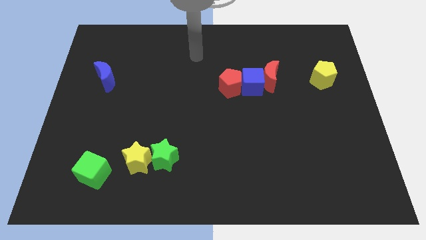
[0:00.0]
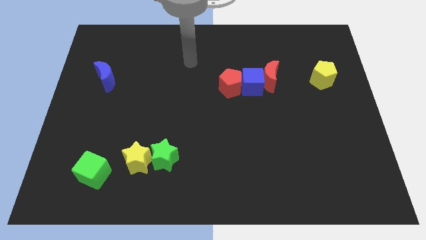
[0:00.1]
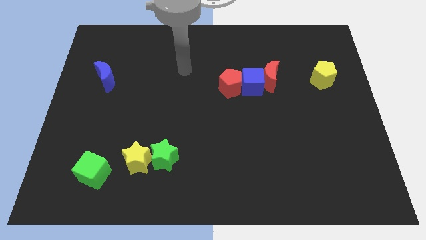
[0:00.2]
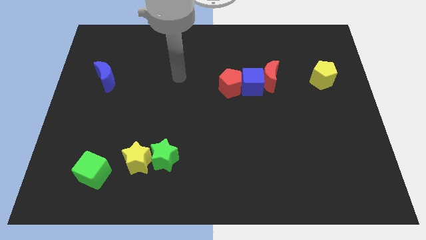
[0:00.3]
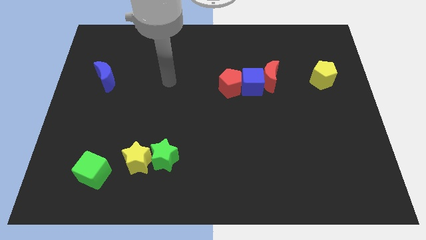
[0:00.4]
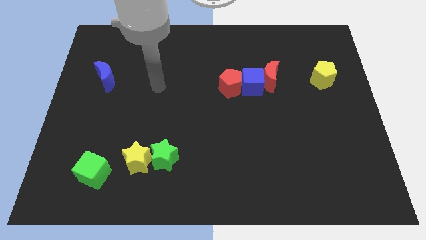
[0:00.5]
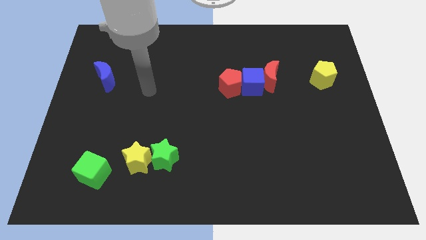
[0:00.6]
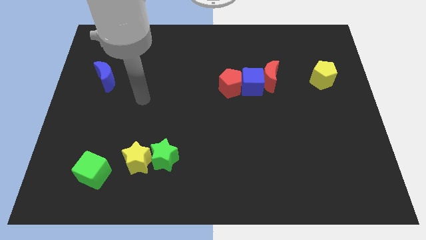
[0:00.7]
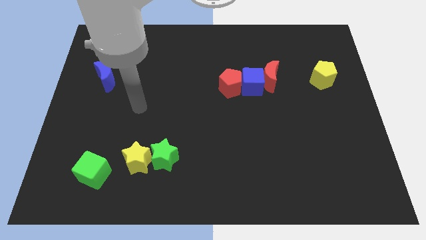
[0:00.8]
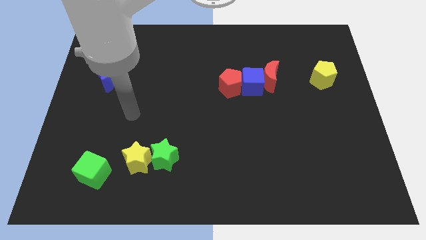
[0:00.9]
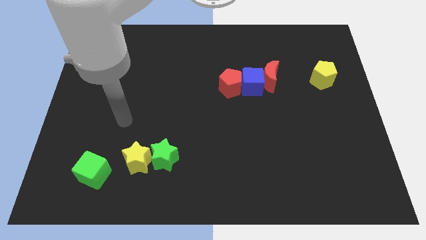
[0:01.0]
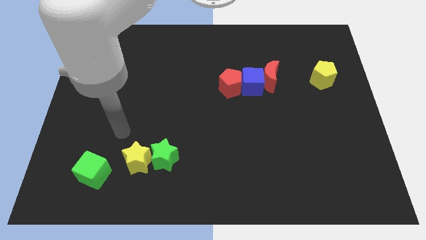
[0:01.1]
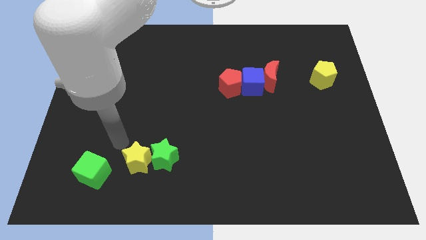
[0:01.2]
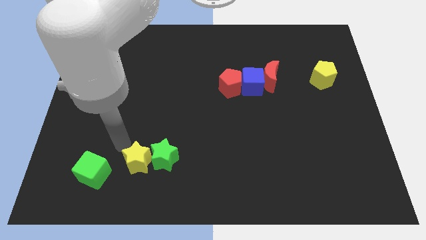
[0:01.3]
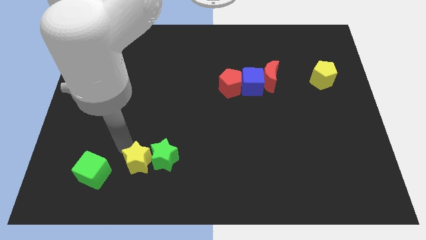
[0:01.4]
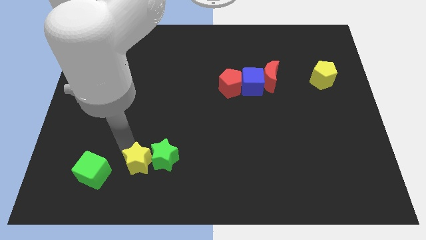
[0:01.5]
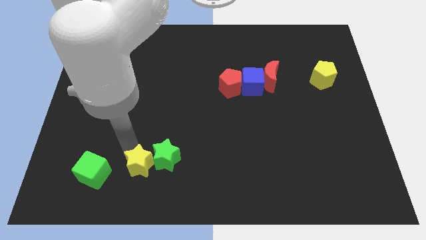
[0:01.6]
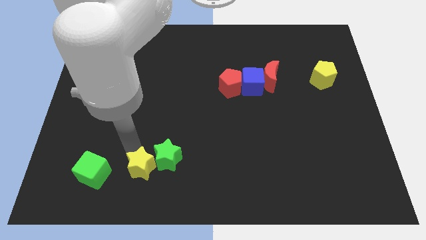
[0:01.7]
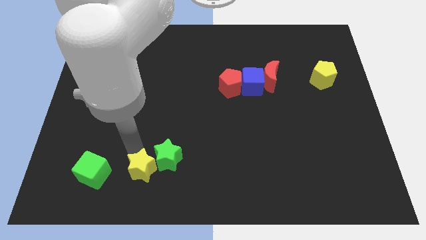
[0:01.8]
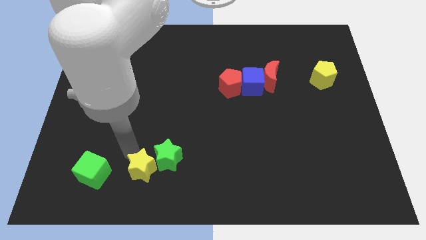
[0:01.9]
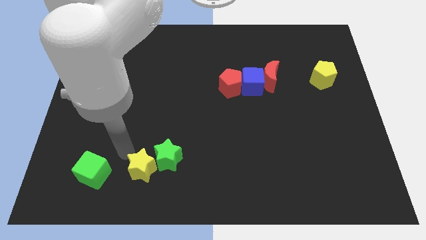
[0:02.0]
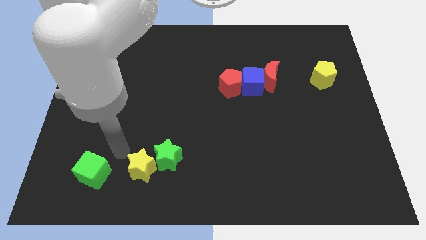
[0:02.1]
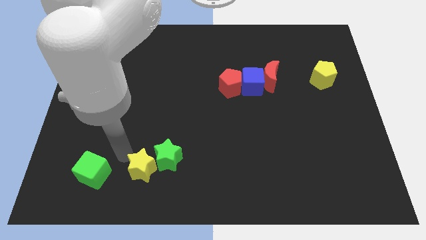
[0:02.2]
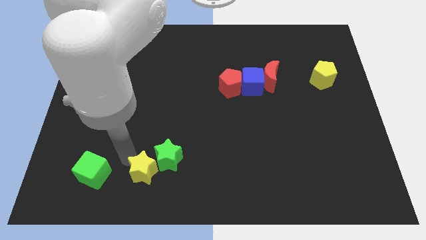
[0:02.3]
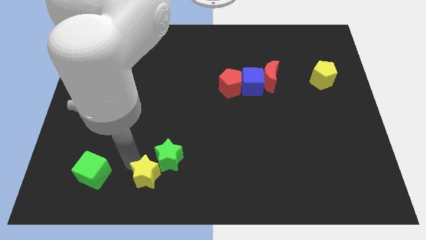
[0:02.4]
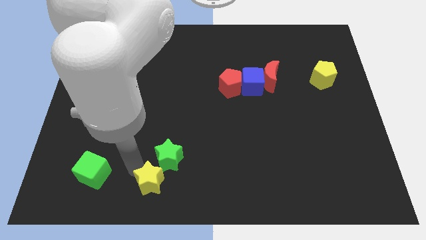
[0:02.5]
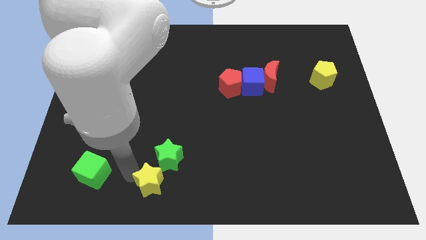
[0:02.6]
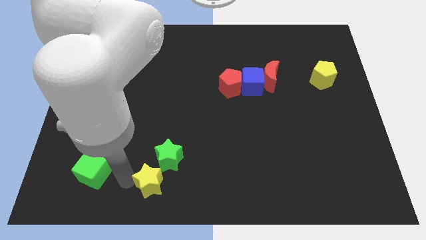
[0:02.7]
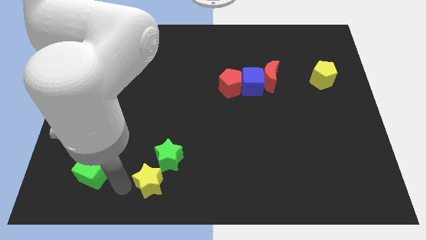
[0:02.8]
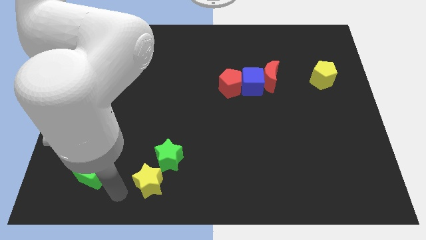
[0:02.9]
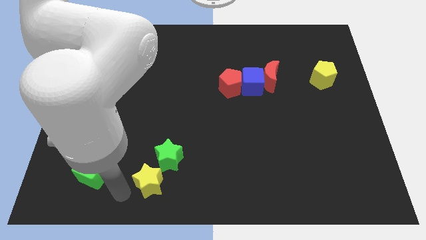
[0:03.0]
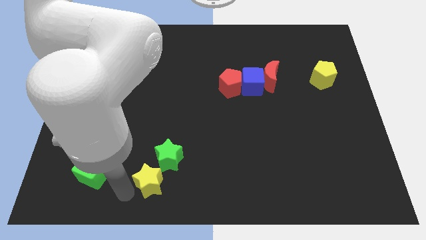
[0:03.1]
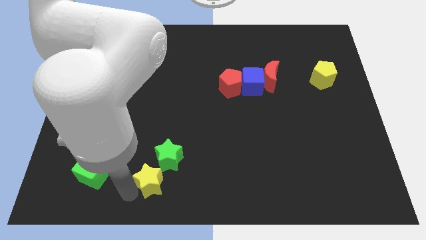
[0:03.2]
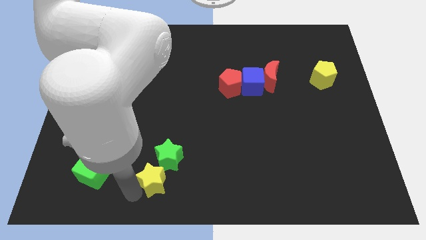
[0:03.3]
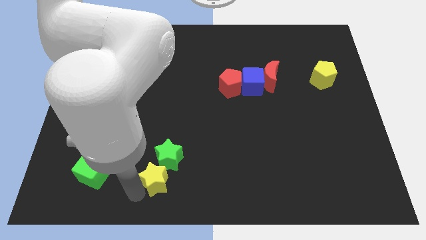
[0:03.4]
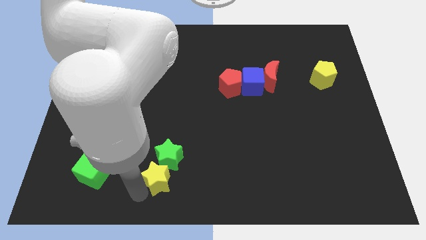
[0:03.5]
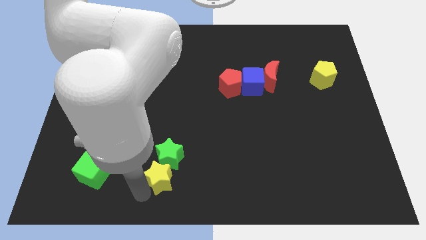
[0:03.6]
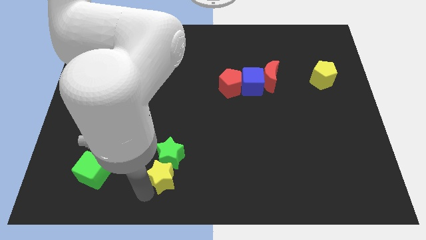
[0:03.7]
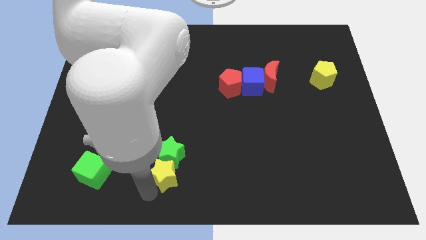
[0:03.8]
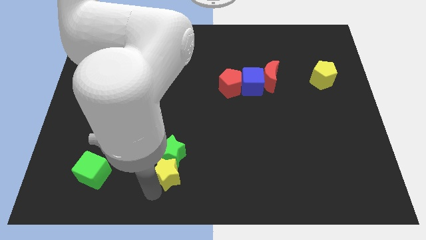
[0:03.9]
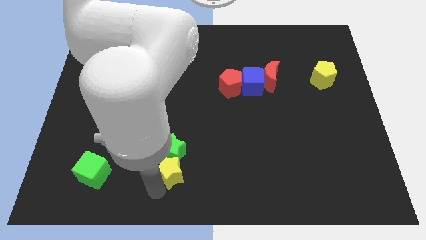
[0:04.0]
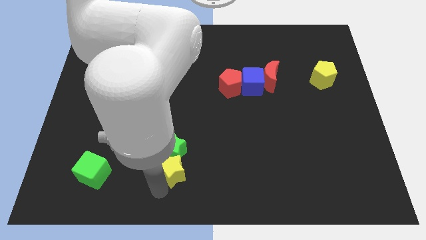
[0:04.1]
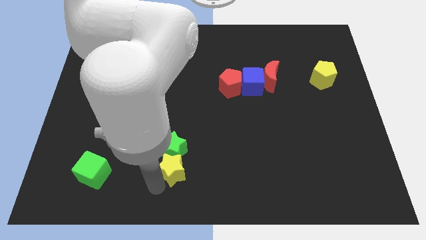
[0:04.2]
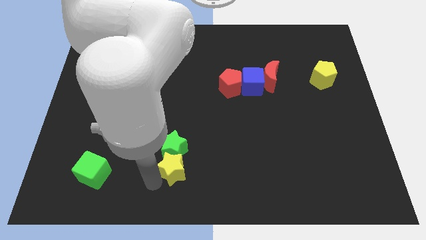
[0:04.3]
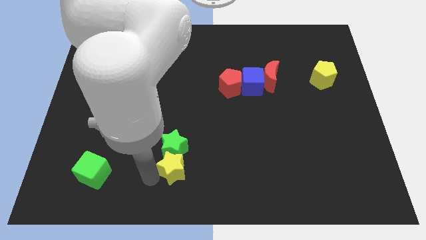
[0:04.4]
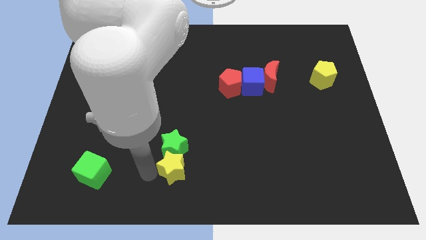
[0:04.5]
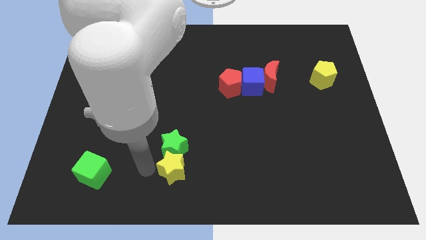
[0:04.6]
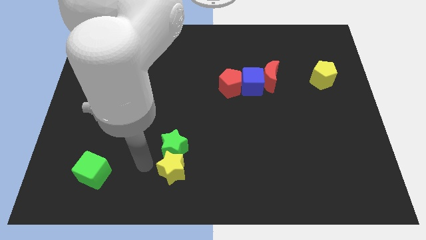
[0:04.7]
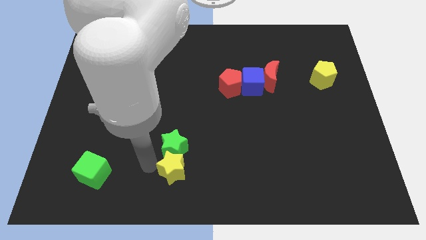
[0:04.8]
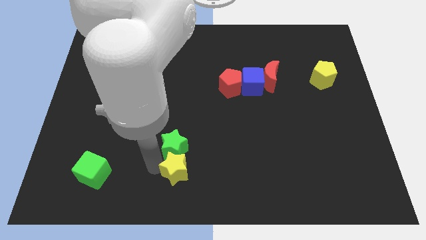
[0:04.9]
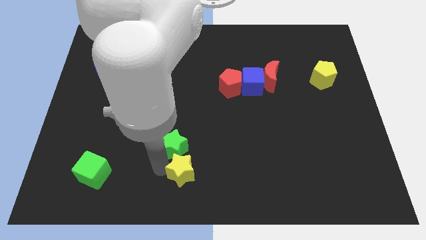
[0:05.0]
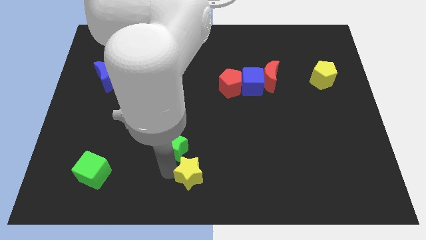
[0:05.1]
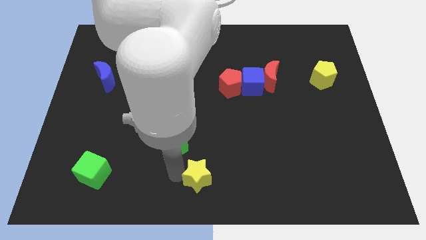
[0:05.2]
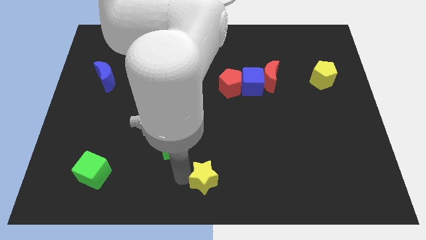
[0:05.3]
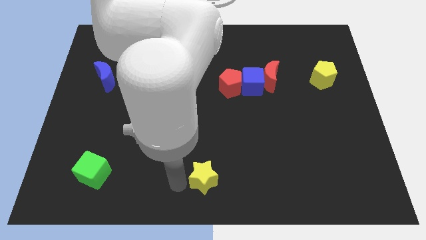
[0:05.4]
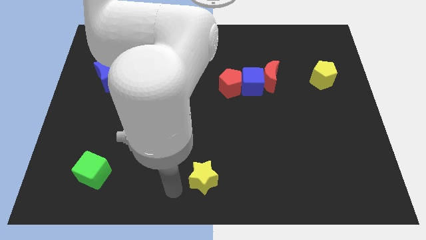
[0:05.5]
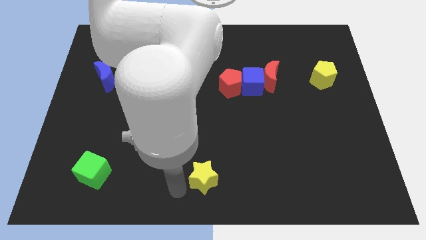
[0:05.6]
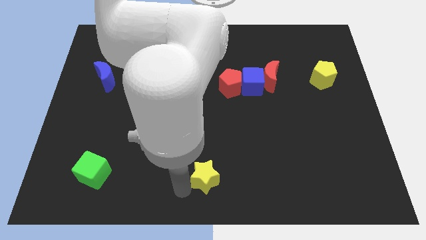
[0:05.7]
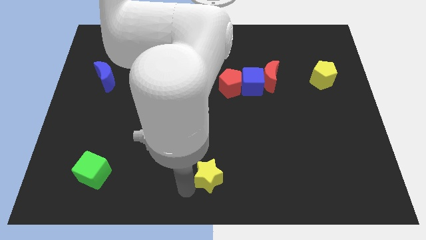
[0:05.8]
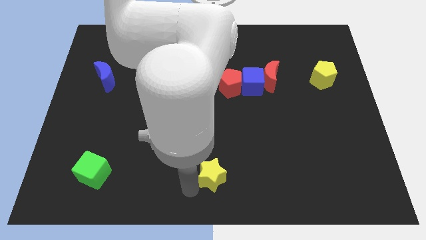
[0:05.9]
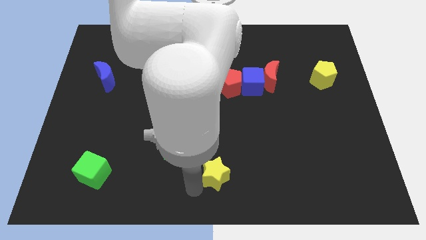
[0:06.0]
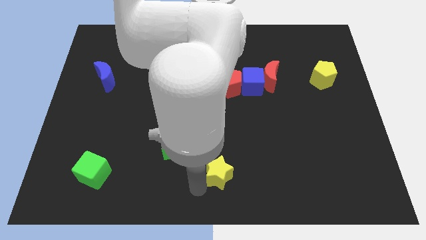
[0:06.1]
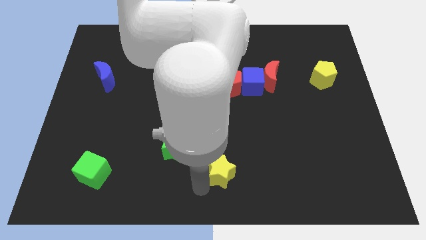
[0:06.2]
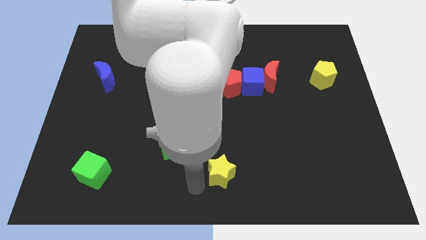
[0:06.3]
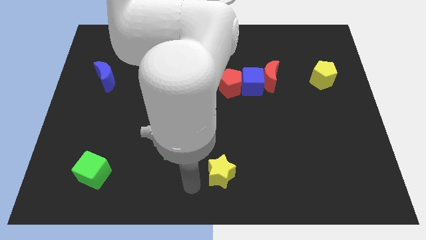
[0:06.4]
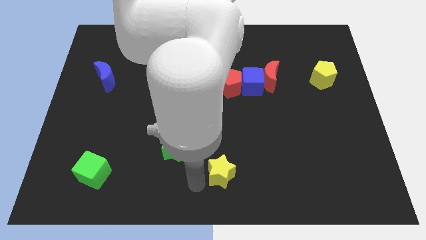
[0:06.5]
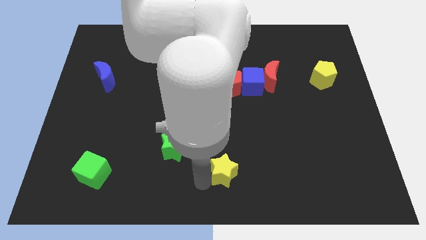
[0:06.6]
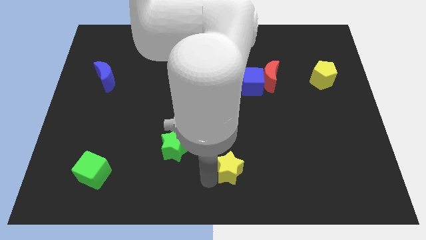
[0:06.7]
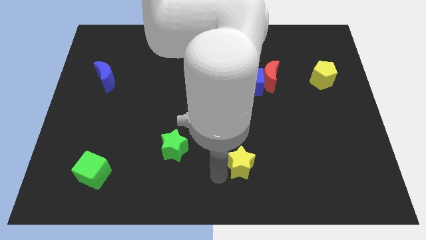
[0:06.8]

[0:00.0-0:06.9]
move the yellow star right

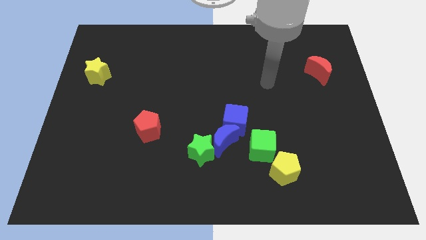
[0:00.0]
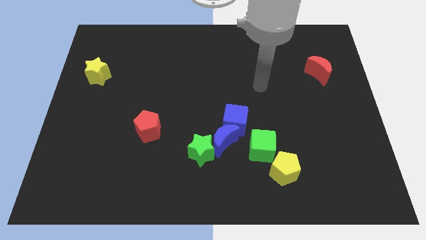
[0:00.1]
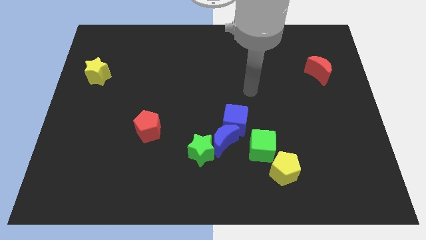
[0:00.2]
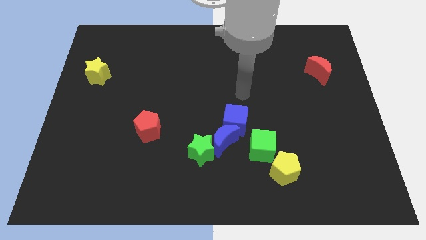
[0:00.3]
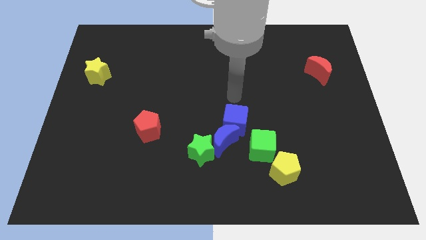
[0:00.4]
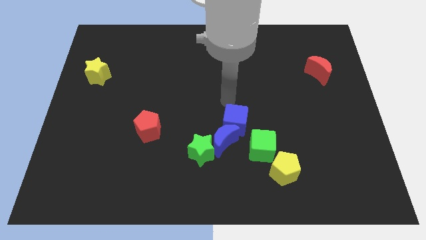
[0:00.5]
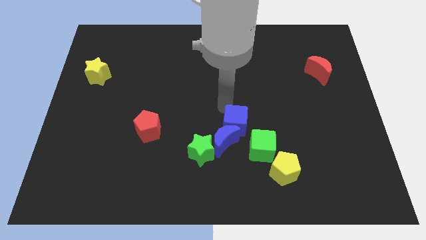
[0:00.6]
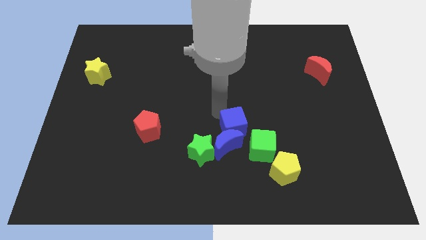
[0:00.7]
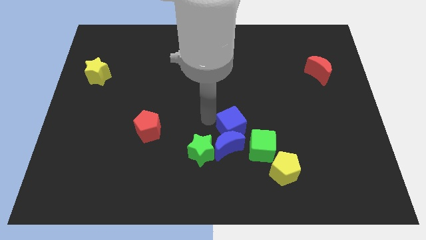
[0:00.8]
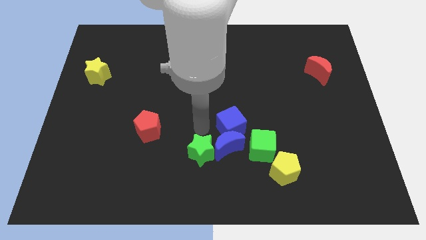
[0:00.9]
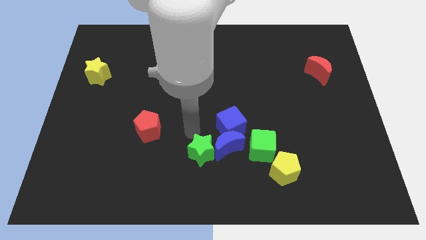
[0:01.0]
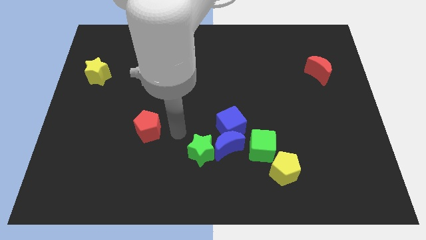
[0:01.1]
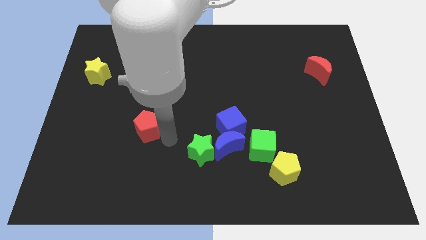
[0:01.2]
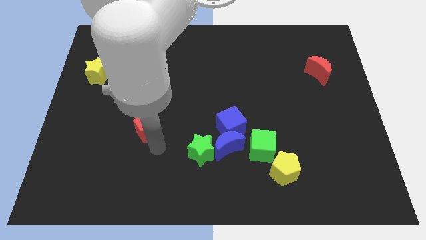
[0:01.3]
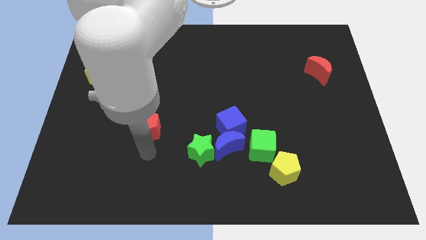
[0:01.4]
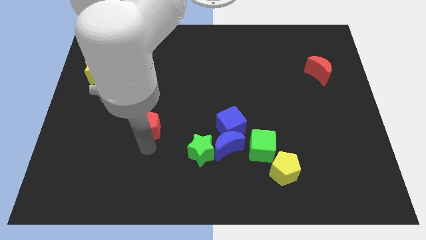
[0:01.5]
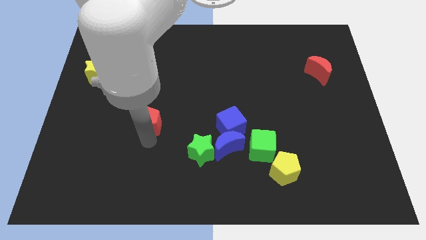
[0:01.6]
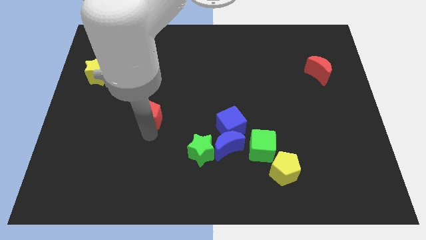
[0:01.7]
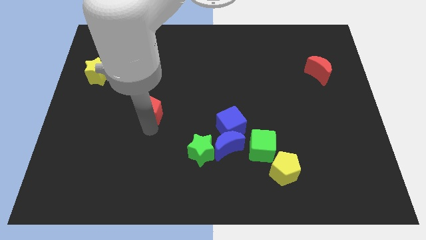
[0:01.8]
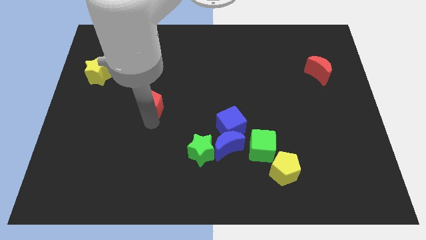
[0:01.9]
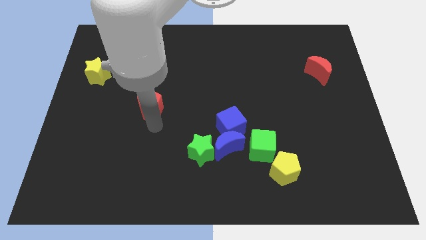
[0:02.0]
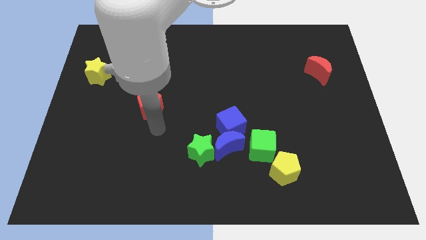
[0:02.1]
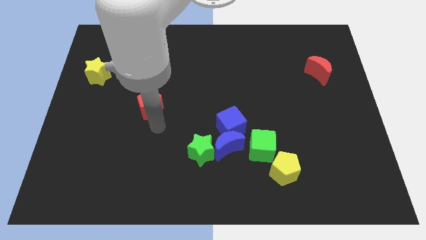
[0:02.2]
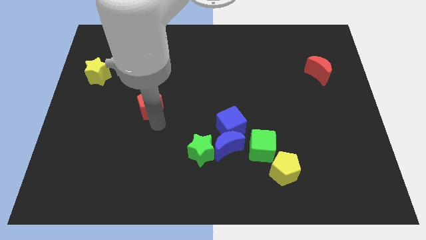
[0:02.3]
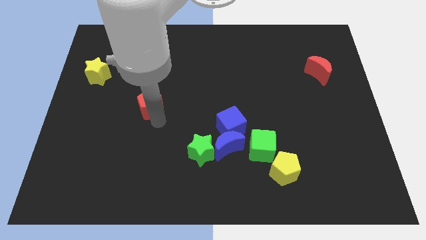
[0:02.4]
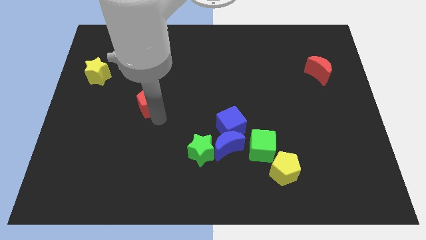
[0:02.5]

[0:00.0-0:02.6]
move the red pentagon a little bit upwards
